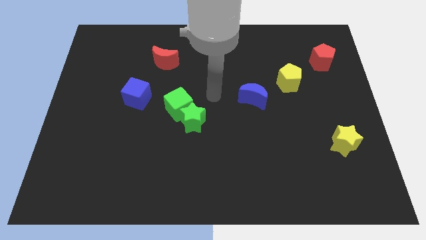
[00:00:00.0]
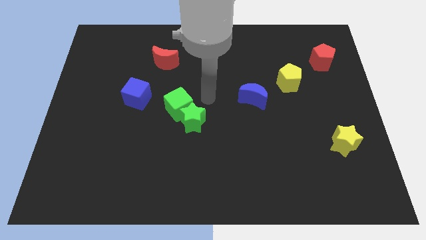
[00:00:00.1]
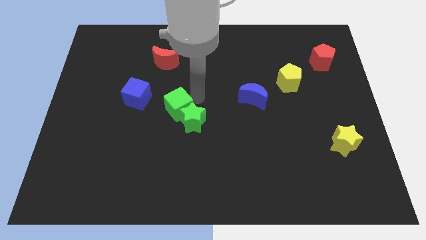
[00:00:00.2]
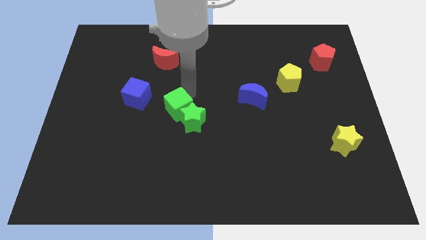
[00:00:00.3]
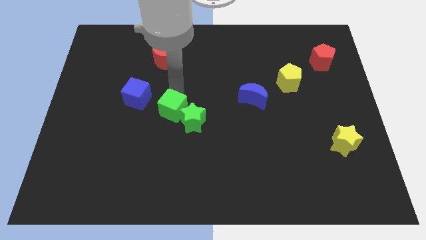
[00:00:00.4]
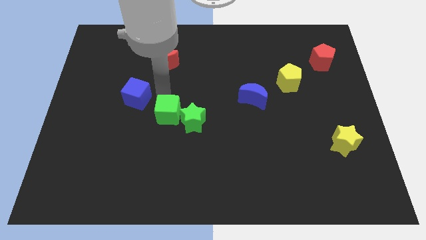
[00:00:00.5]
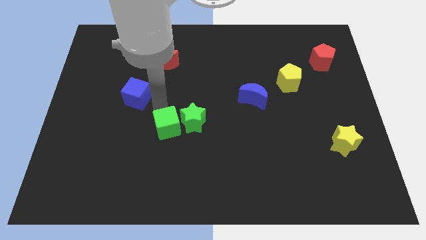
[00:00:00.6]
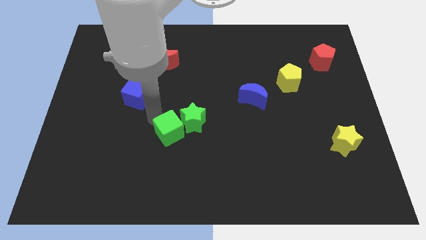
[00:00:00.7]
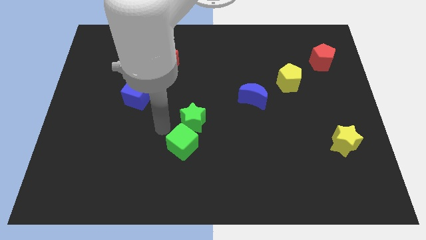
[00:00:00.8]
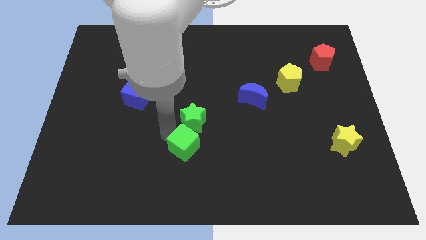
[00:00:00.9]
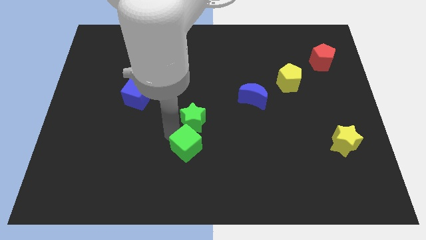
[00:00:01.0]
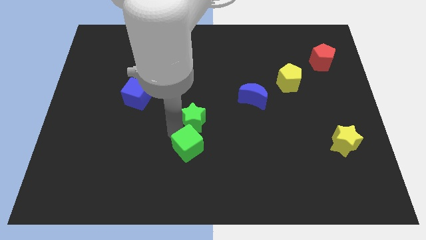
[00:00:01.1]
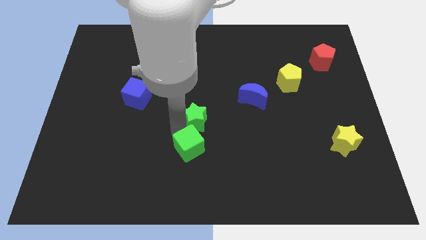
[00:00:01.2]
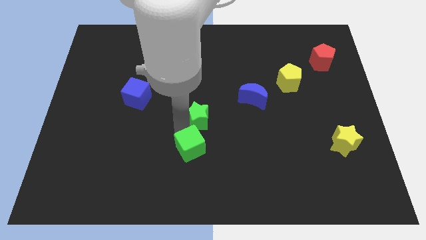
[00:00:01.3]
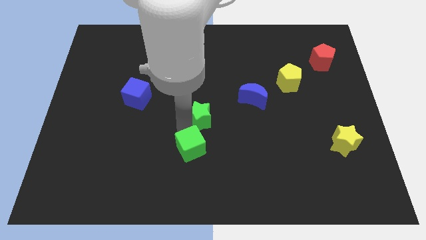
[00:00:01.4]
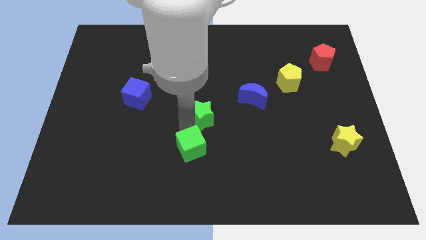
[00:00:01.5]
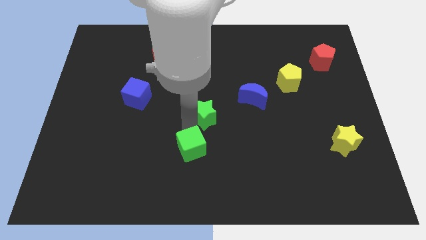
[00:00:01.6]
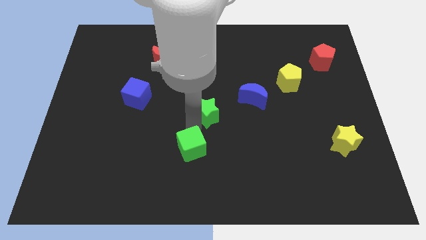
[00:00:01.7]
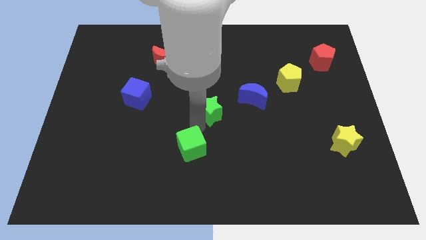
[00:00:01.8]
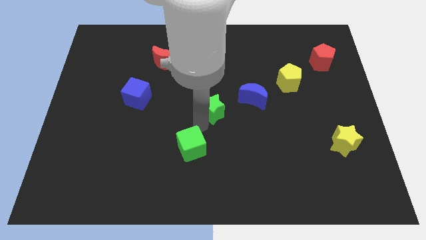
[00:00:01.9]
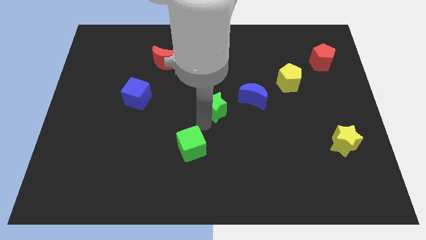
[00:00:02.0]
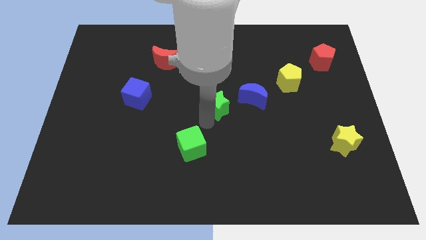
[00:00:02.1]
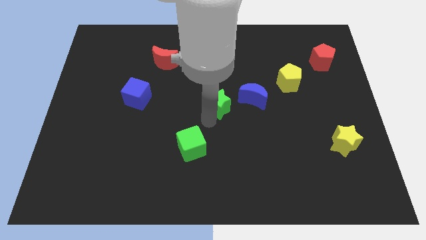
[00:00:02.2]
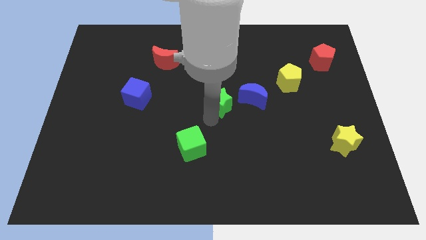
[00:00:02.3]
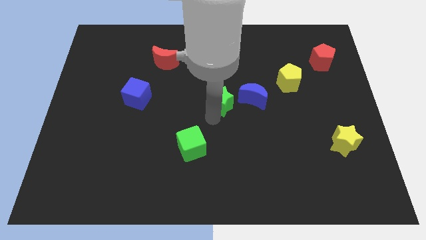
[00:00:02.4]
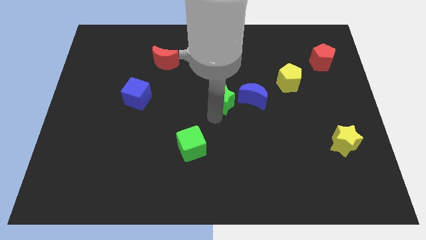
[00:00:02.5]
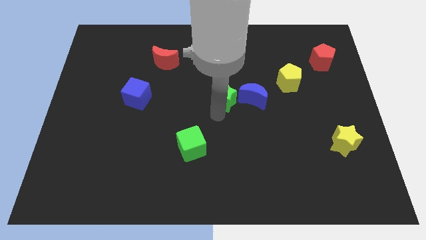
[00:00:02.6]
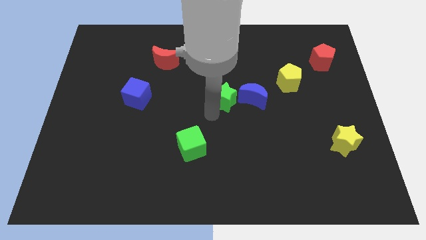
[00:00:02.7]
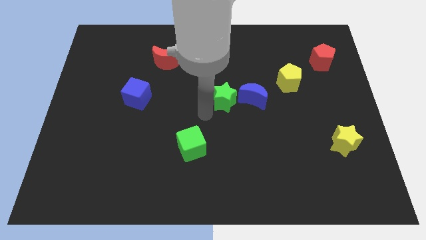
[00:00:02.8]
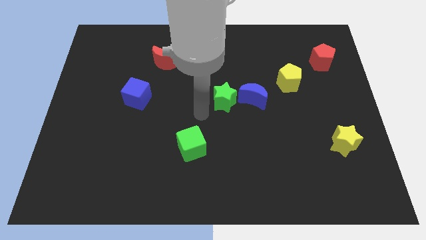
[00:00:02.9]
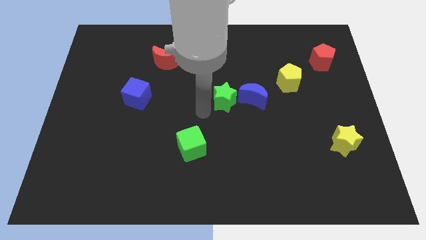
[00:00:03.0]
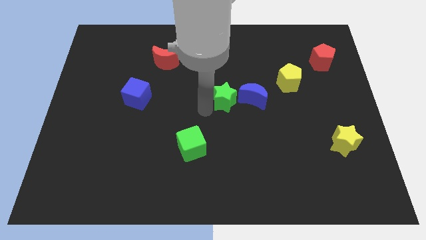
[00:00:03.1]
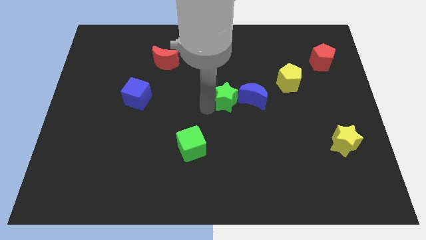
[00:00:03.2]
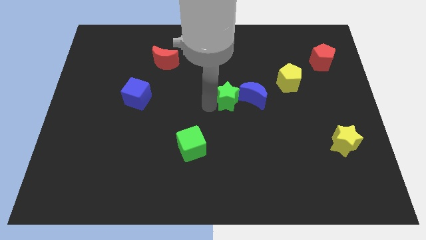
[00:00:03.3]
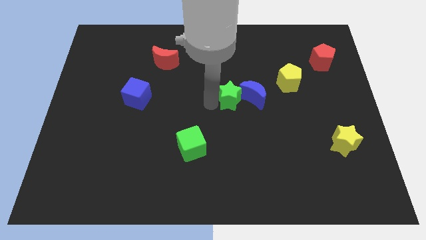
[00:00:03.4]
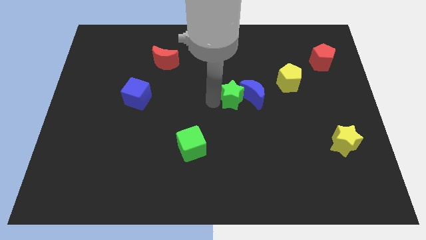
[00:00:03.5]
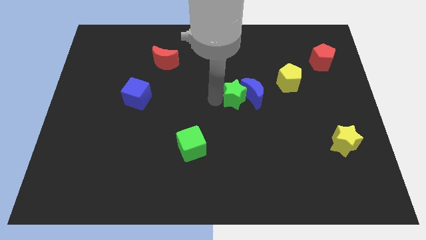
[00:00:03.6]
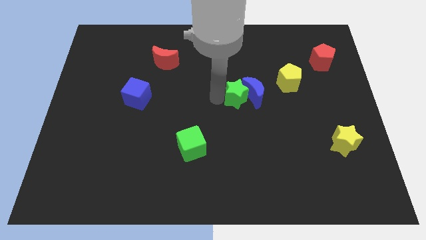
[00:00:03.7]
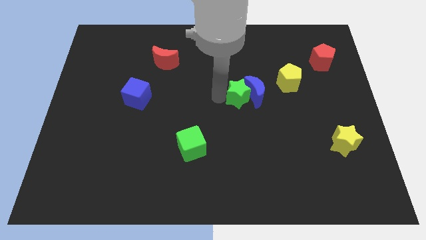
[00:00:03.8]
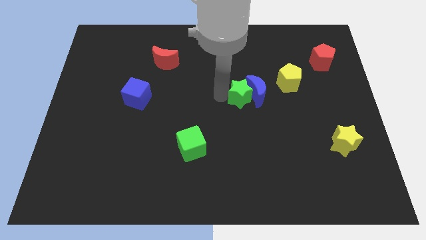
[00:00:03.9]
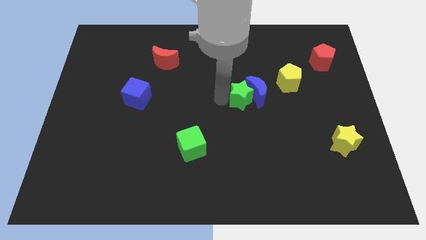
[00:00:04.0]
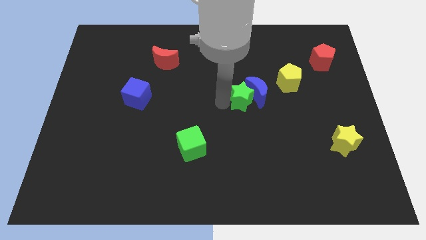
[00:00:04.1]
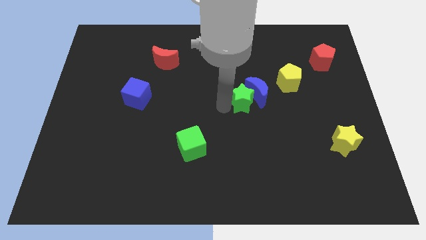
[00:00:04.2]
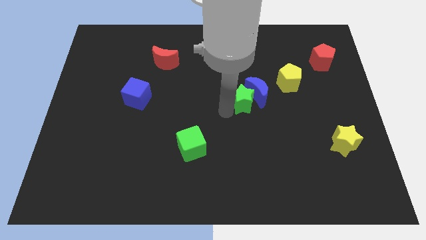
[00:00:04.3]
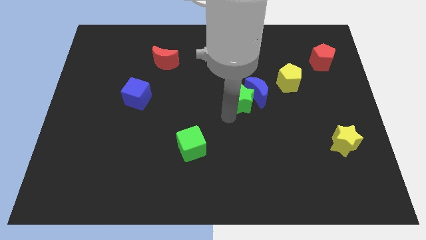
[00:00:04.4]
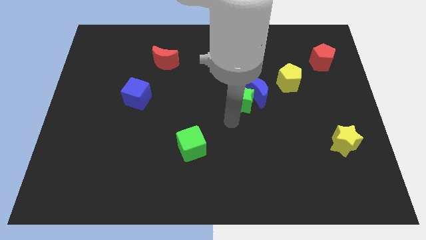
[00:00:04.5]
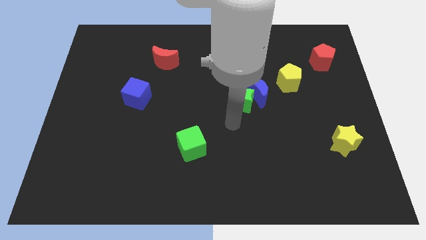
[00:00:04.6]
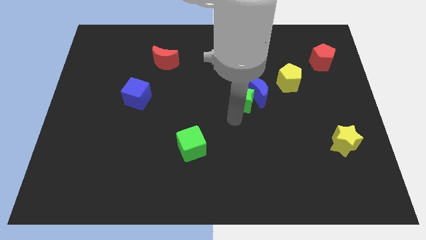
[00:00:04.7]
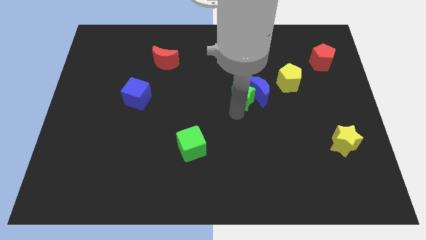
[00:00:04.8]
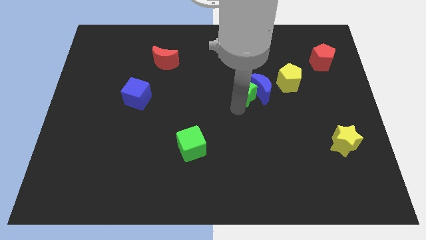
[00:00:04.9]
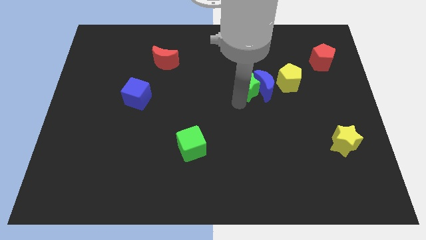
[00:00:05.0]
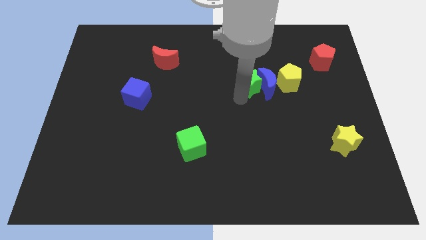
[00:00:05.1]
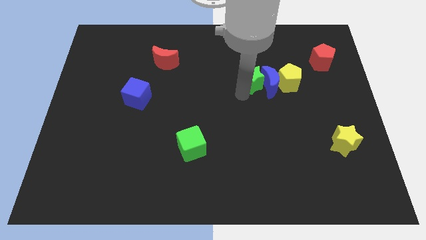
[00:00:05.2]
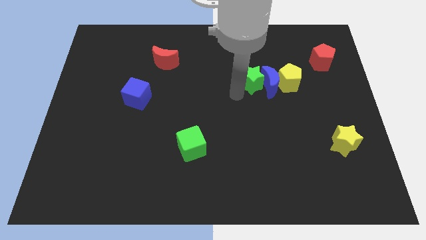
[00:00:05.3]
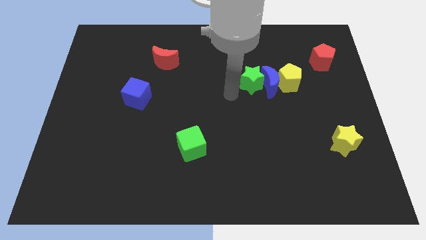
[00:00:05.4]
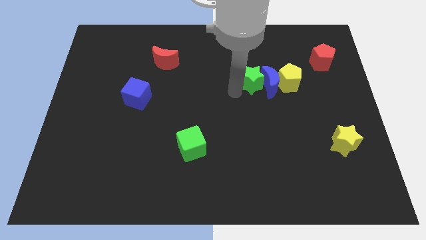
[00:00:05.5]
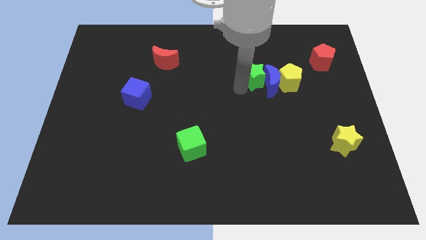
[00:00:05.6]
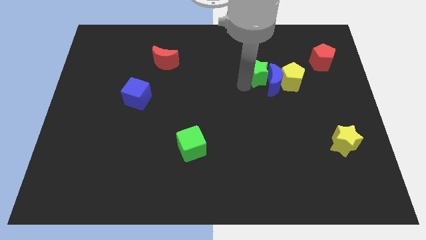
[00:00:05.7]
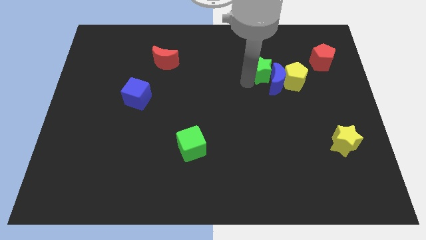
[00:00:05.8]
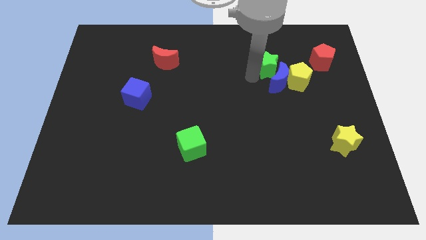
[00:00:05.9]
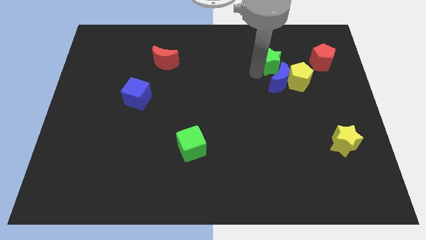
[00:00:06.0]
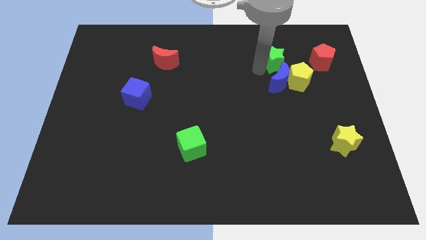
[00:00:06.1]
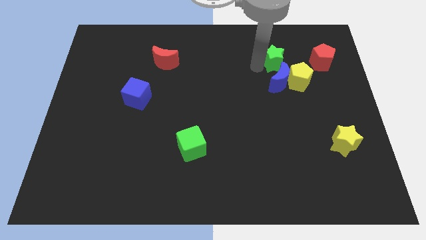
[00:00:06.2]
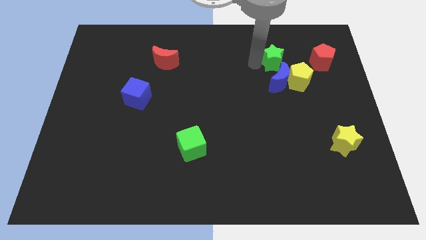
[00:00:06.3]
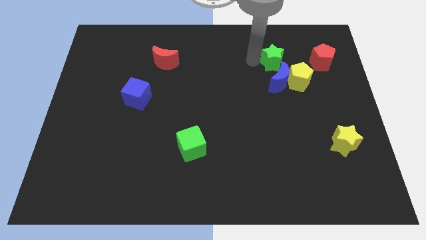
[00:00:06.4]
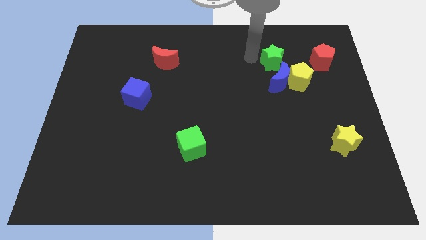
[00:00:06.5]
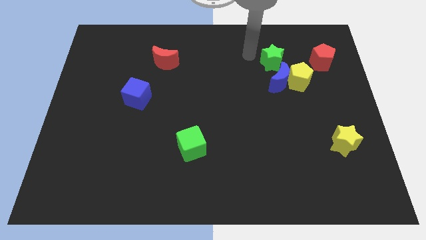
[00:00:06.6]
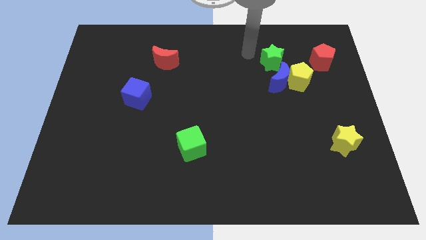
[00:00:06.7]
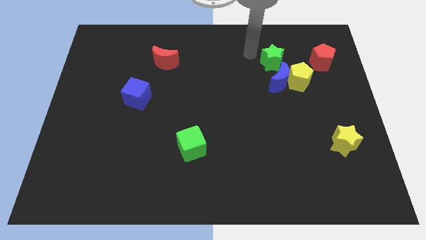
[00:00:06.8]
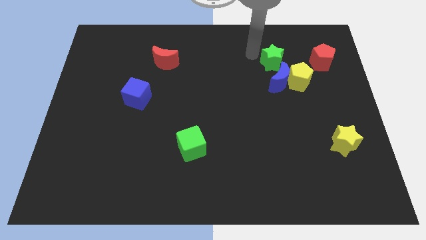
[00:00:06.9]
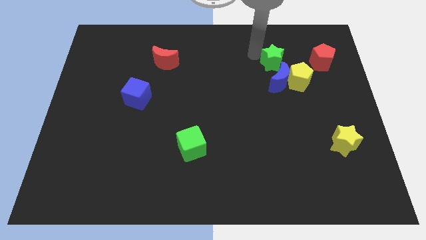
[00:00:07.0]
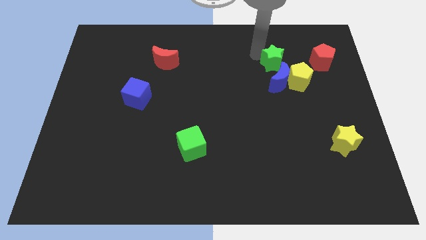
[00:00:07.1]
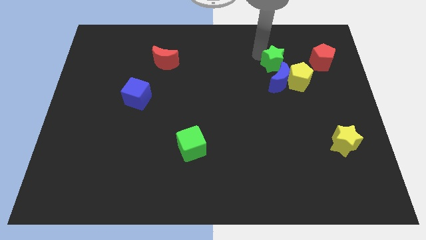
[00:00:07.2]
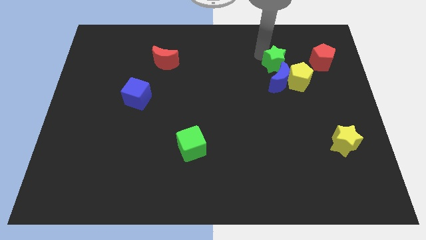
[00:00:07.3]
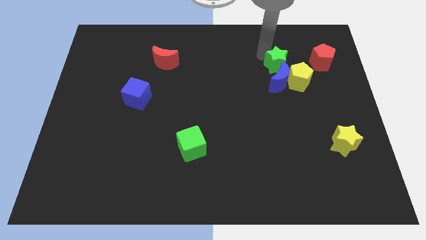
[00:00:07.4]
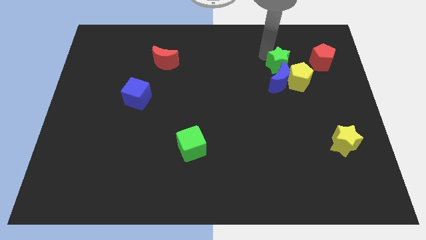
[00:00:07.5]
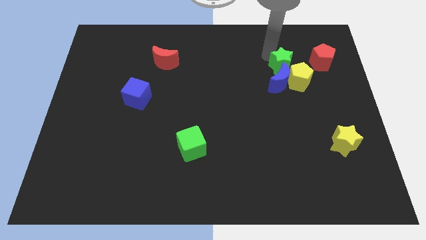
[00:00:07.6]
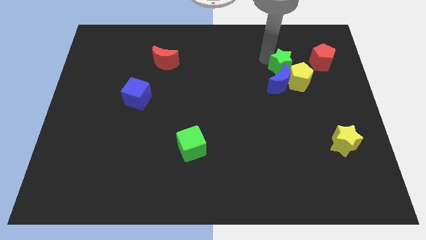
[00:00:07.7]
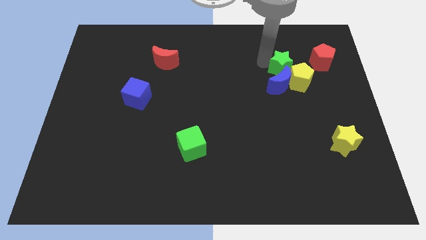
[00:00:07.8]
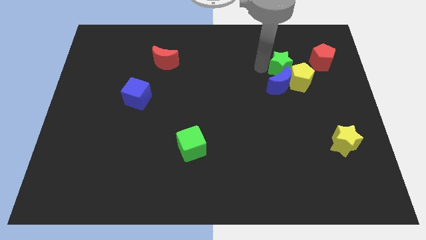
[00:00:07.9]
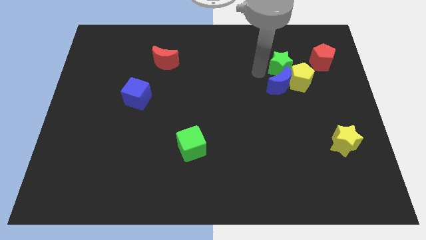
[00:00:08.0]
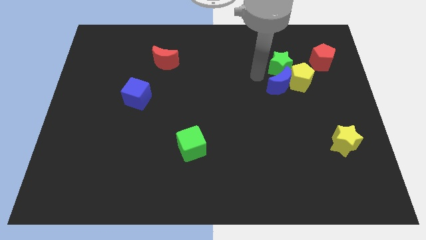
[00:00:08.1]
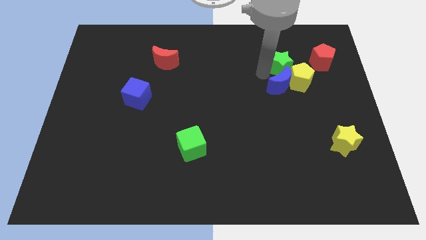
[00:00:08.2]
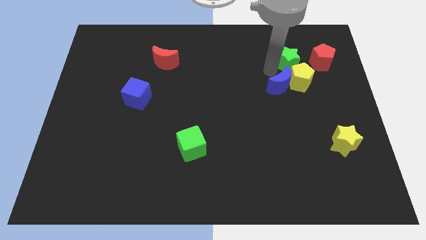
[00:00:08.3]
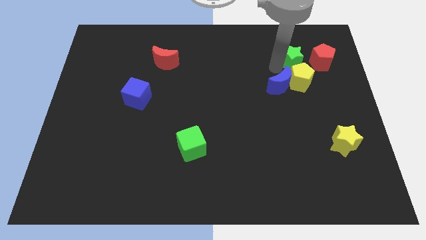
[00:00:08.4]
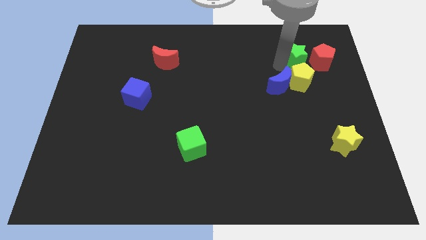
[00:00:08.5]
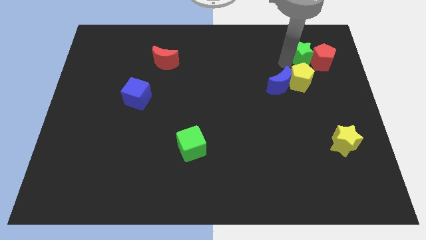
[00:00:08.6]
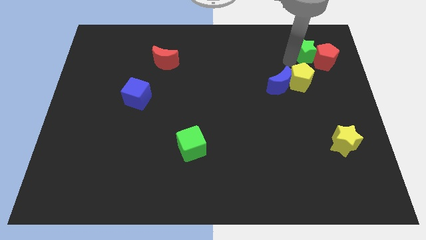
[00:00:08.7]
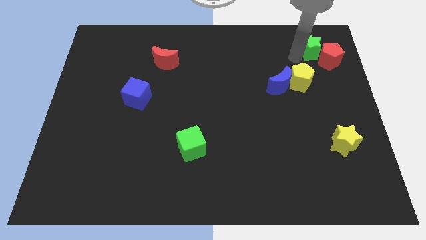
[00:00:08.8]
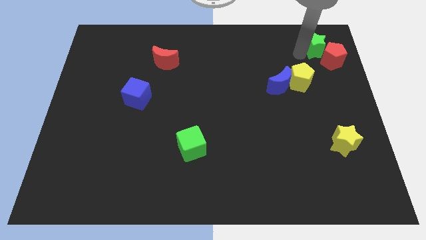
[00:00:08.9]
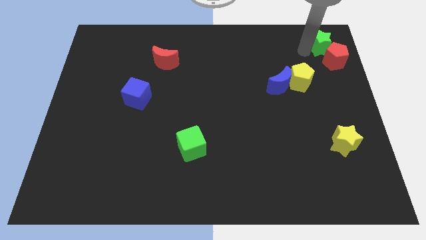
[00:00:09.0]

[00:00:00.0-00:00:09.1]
move the green star to the top right
